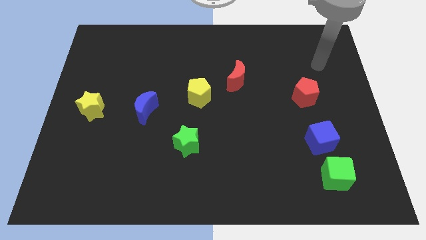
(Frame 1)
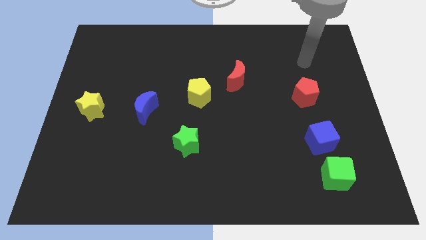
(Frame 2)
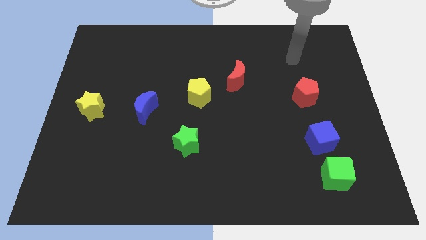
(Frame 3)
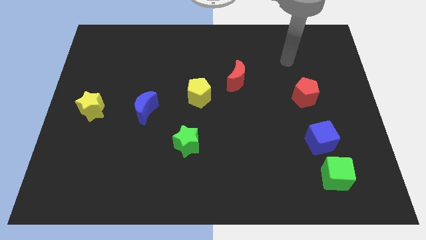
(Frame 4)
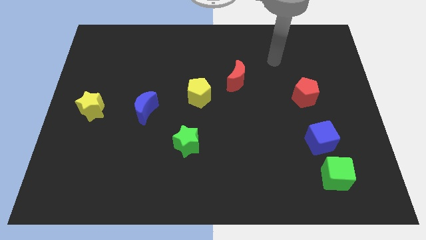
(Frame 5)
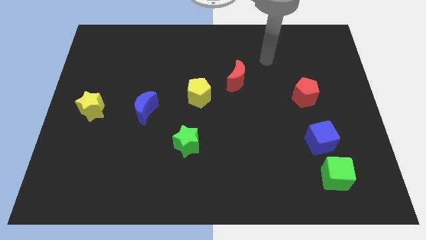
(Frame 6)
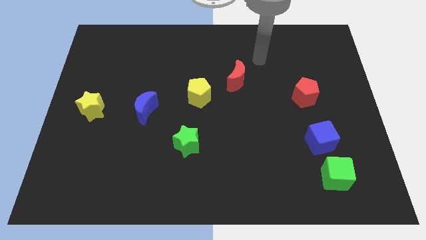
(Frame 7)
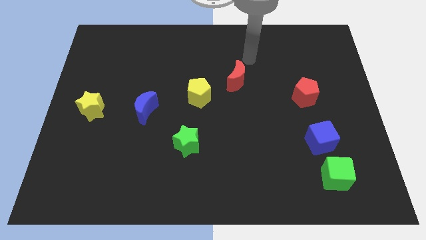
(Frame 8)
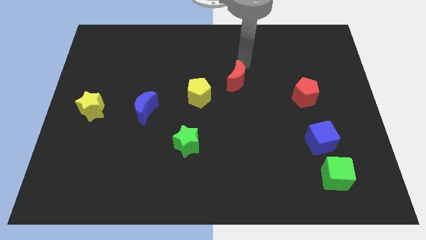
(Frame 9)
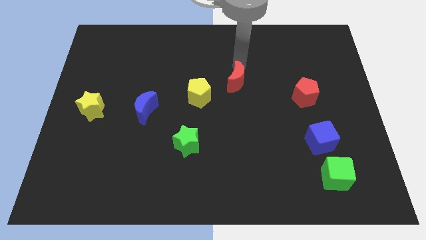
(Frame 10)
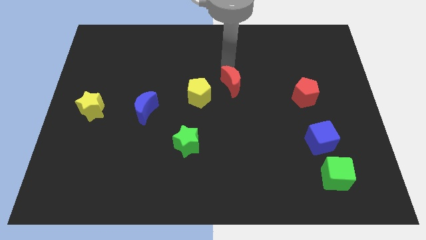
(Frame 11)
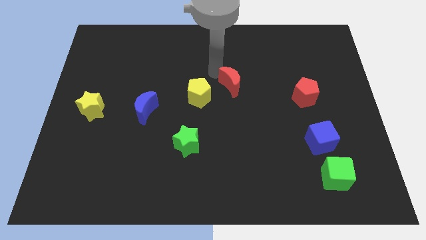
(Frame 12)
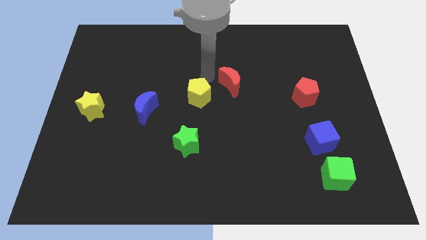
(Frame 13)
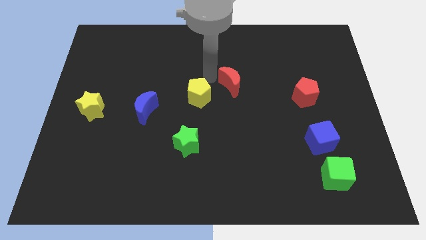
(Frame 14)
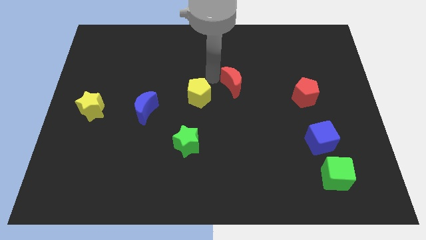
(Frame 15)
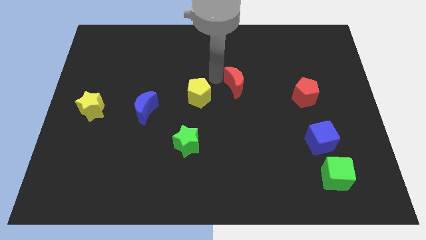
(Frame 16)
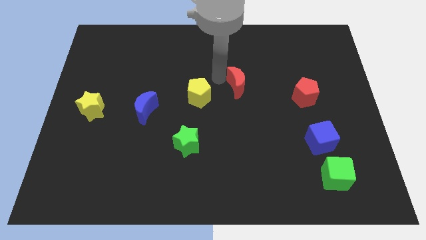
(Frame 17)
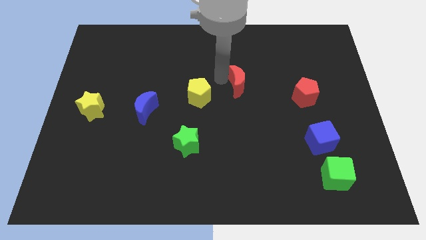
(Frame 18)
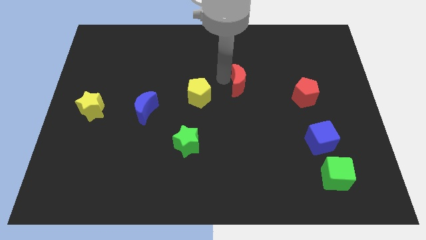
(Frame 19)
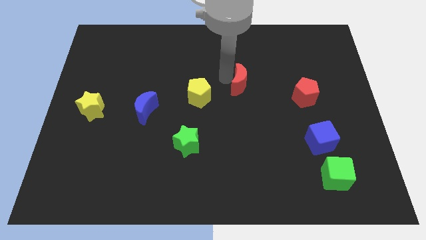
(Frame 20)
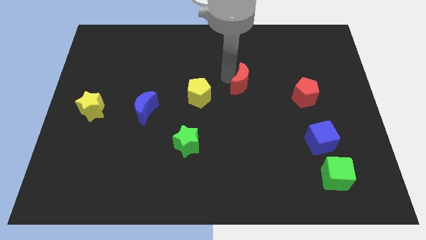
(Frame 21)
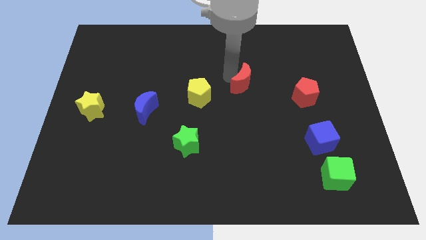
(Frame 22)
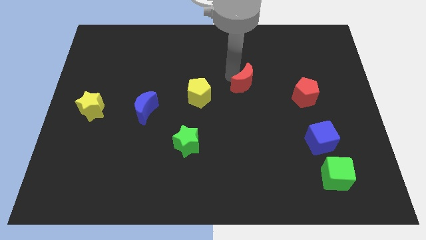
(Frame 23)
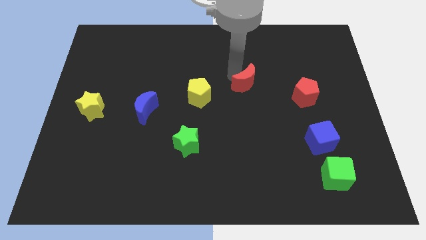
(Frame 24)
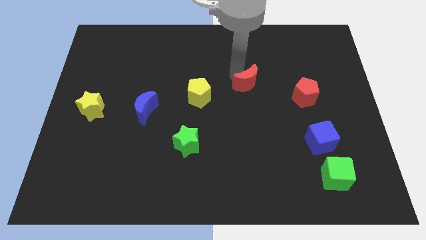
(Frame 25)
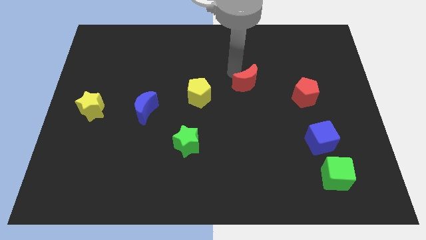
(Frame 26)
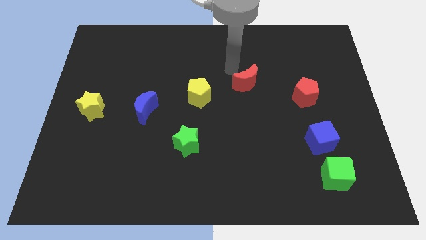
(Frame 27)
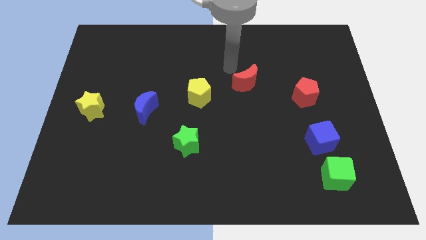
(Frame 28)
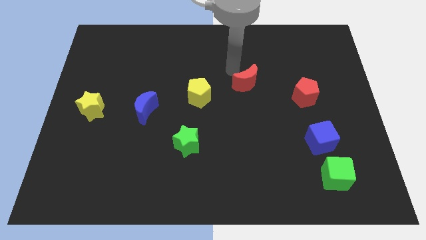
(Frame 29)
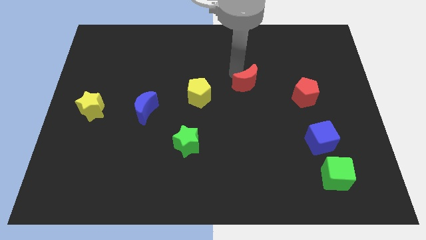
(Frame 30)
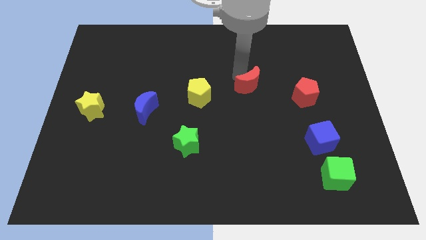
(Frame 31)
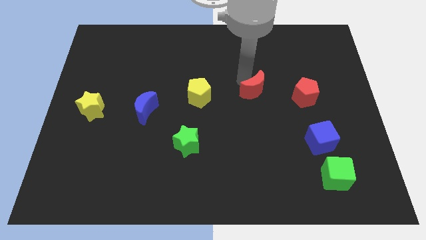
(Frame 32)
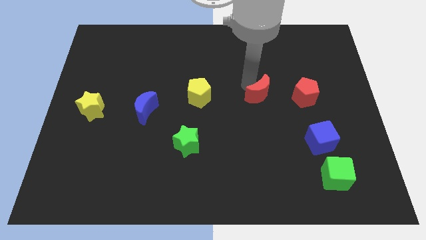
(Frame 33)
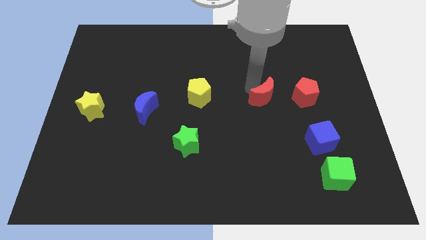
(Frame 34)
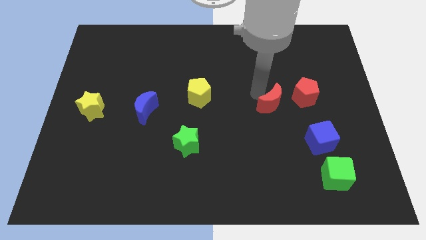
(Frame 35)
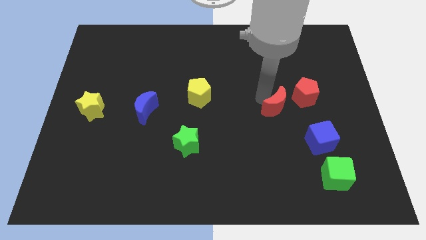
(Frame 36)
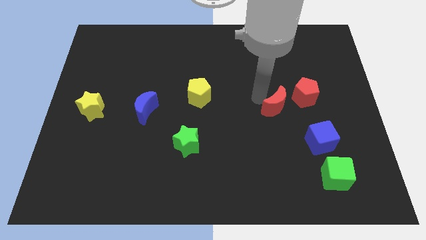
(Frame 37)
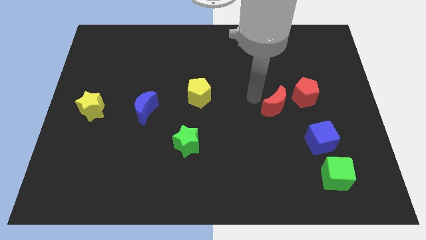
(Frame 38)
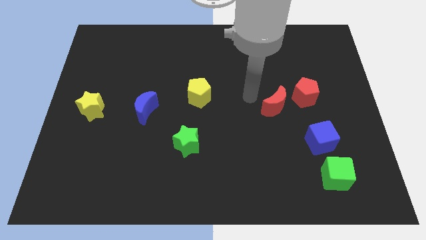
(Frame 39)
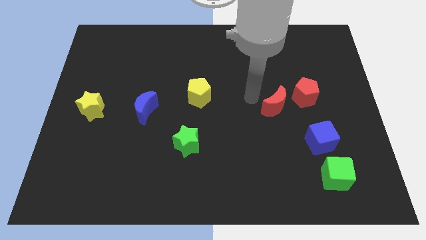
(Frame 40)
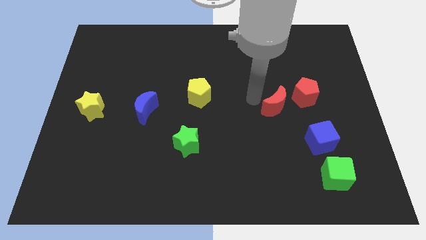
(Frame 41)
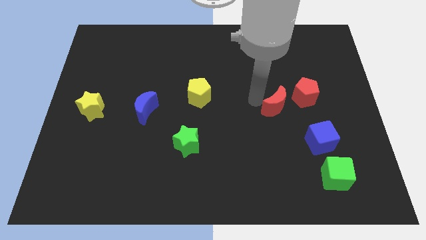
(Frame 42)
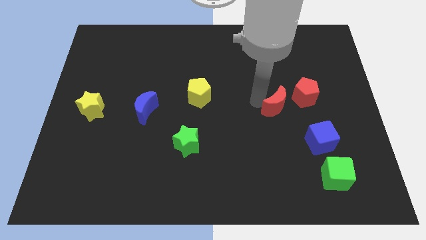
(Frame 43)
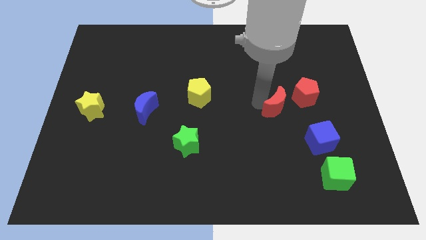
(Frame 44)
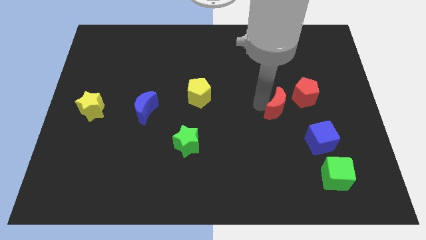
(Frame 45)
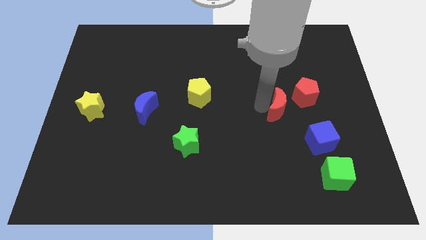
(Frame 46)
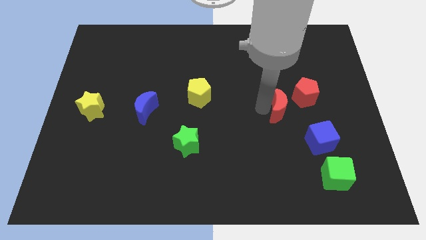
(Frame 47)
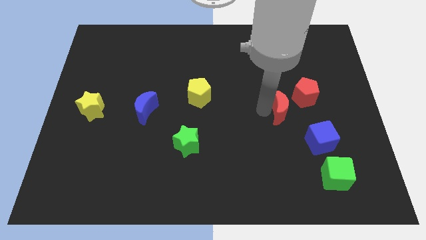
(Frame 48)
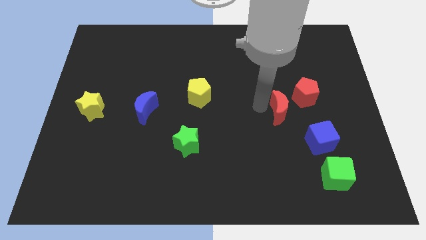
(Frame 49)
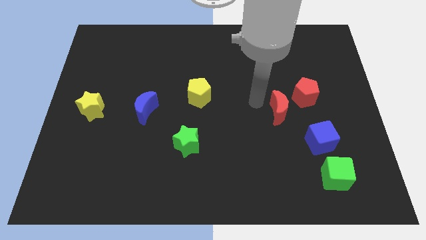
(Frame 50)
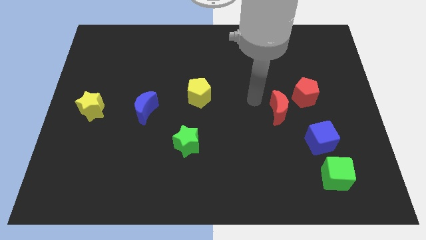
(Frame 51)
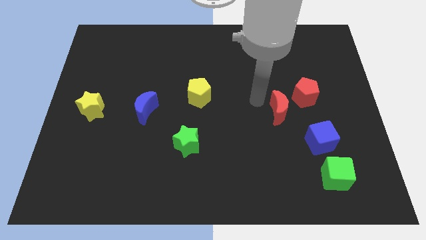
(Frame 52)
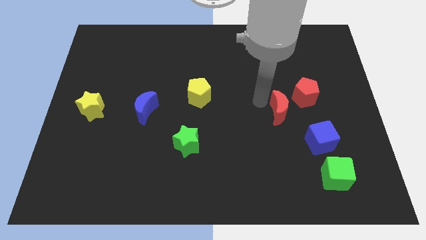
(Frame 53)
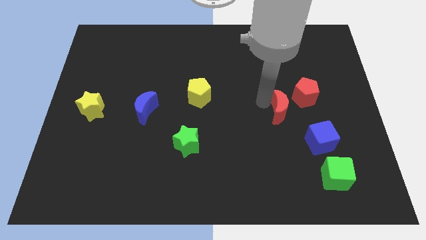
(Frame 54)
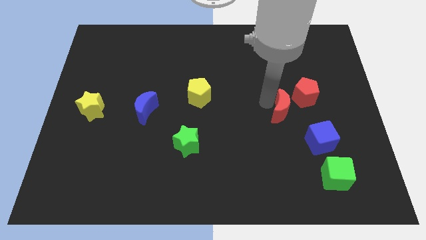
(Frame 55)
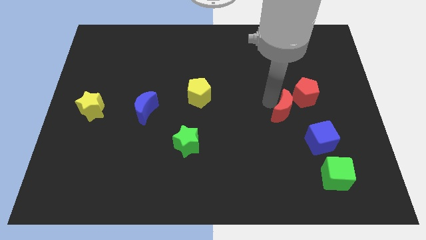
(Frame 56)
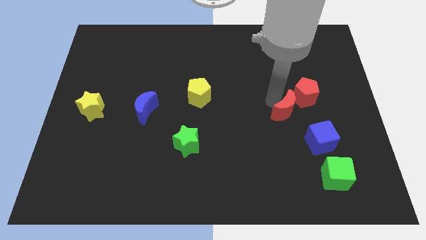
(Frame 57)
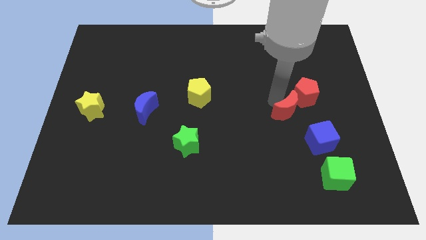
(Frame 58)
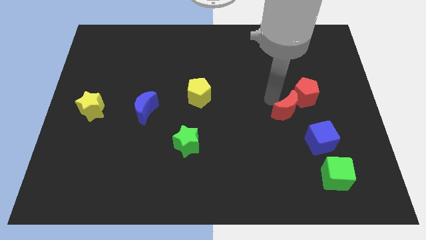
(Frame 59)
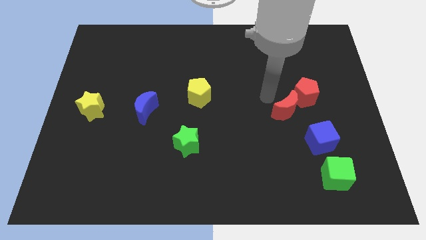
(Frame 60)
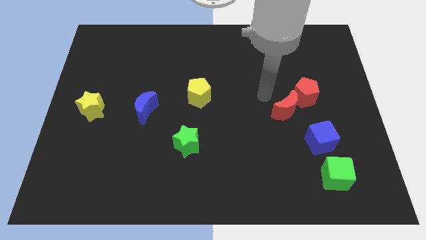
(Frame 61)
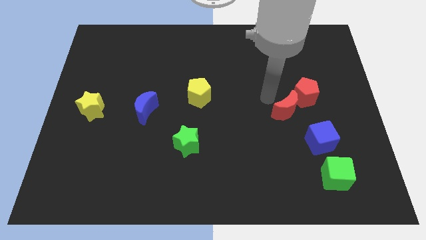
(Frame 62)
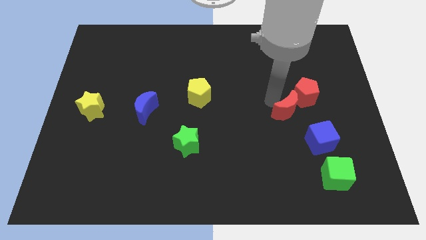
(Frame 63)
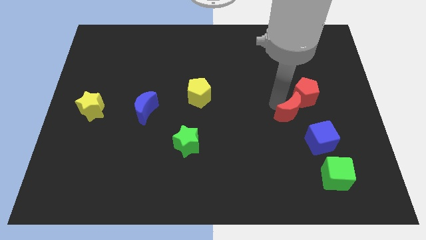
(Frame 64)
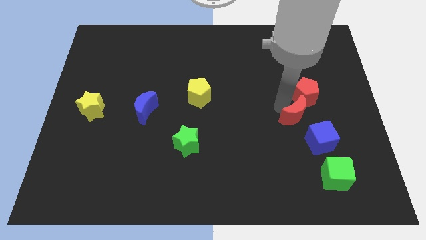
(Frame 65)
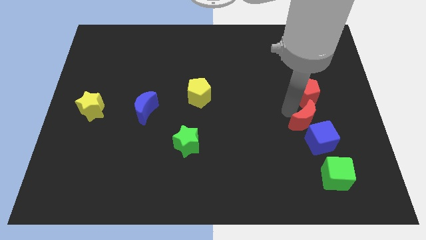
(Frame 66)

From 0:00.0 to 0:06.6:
put the red moon next to the blue cube

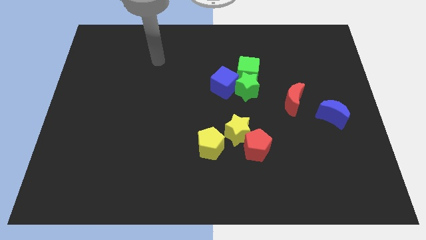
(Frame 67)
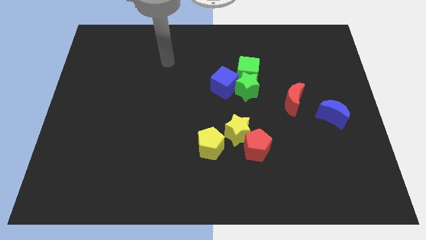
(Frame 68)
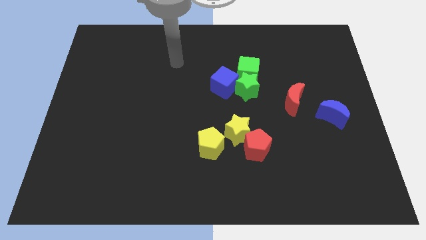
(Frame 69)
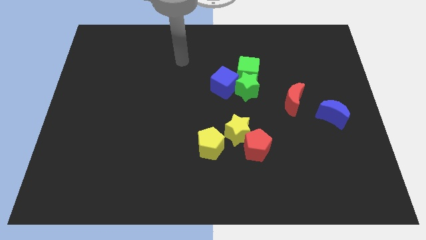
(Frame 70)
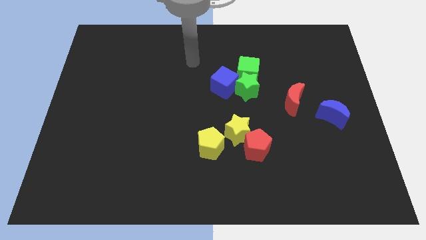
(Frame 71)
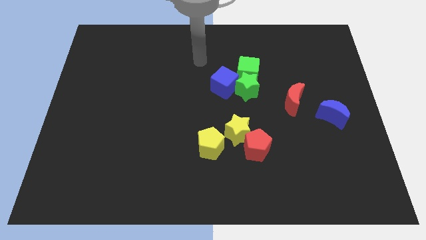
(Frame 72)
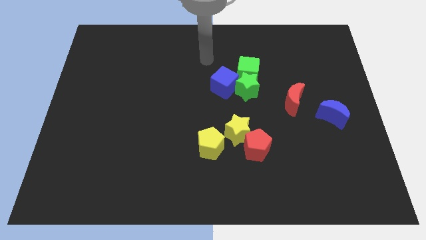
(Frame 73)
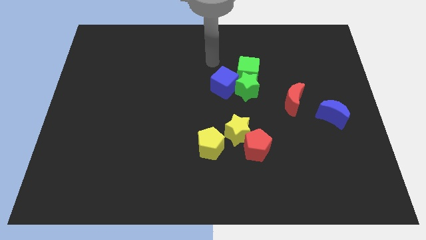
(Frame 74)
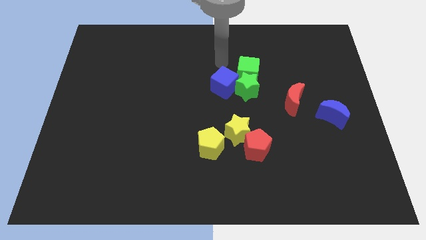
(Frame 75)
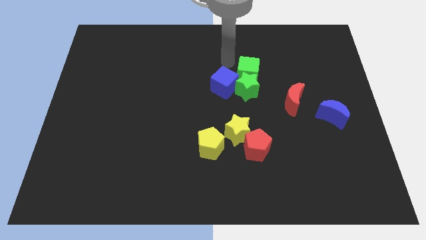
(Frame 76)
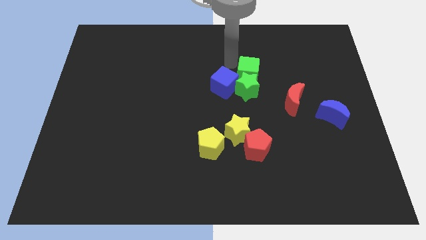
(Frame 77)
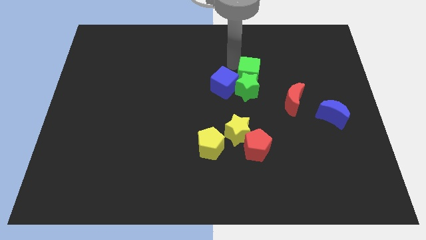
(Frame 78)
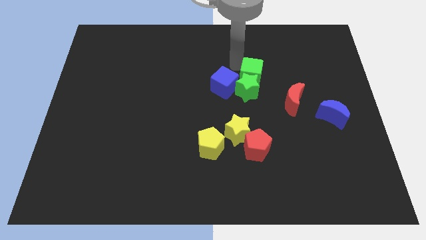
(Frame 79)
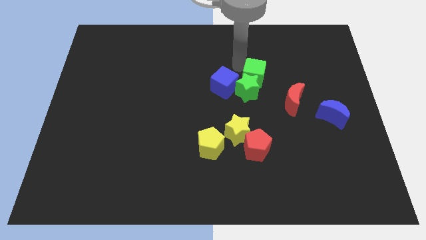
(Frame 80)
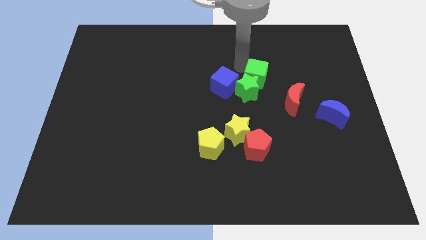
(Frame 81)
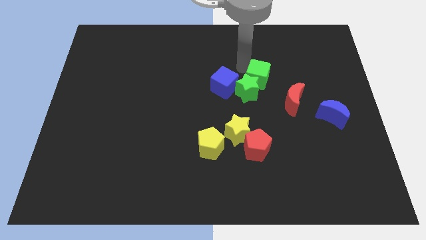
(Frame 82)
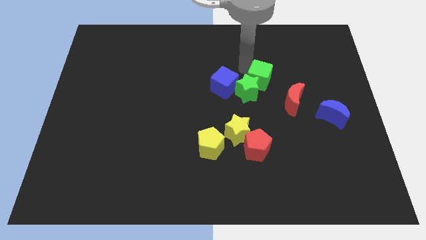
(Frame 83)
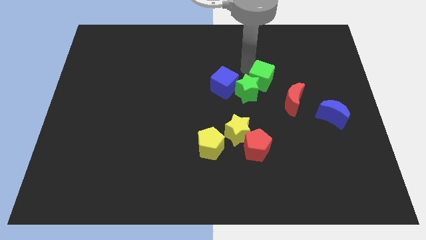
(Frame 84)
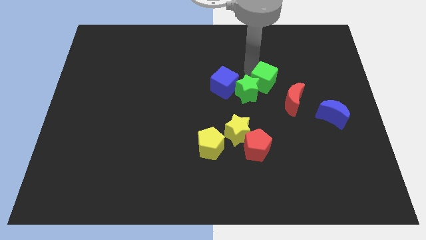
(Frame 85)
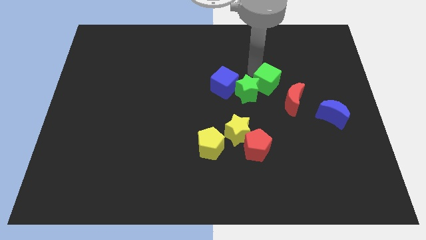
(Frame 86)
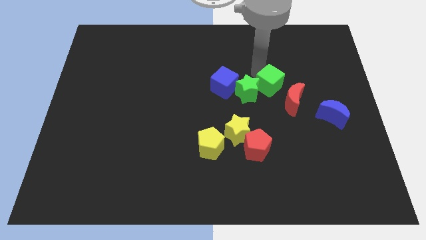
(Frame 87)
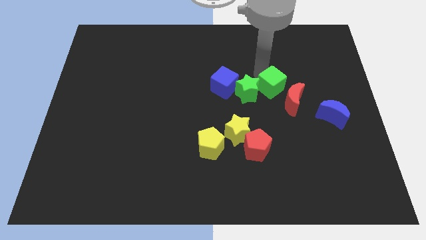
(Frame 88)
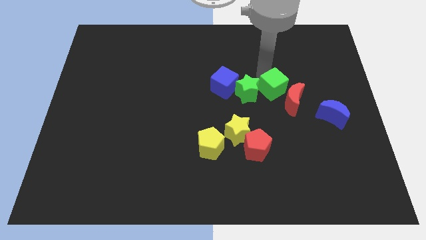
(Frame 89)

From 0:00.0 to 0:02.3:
push the green cube next to the red moon
